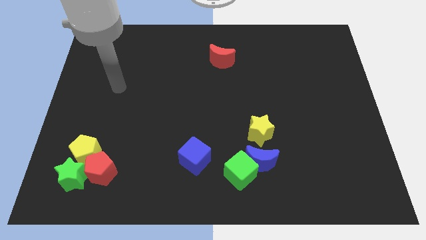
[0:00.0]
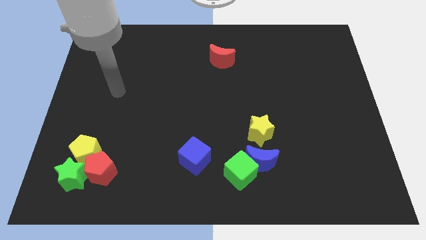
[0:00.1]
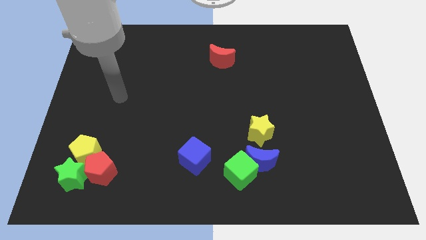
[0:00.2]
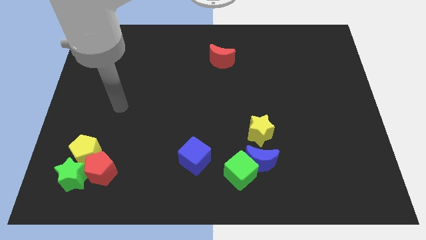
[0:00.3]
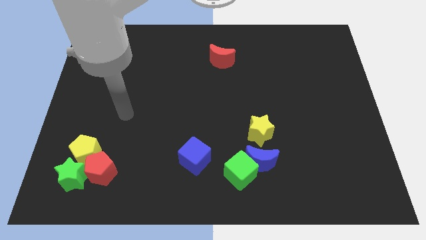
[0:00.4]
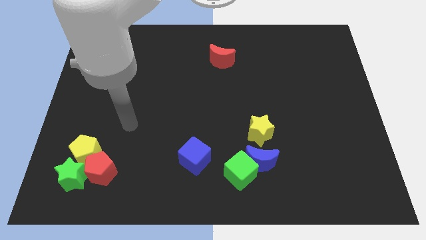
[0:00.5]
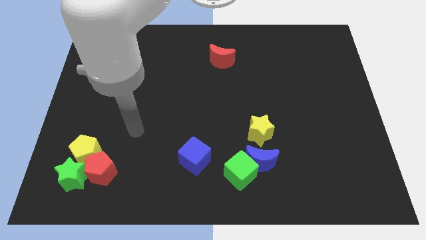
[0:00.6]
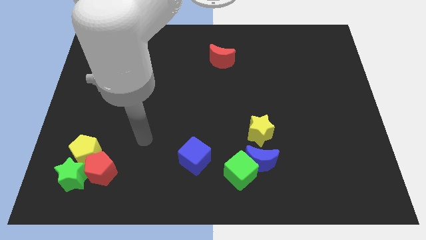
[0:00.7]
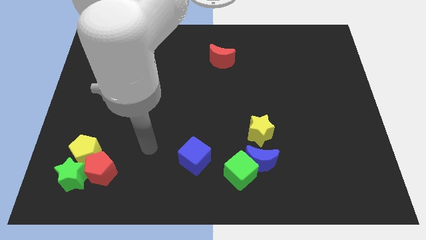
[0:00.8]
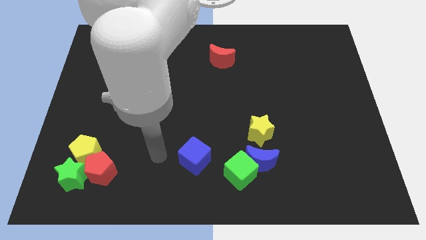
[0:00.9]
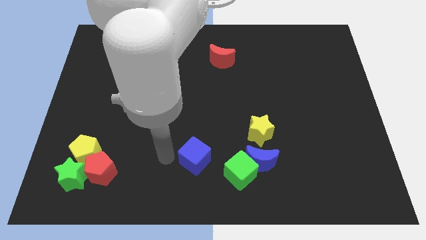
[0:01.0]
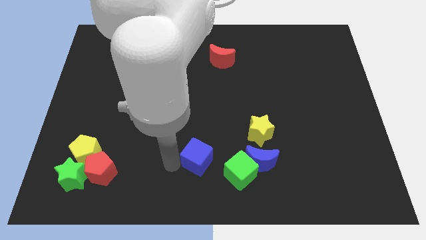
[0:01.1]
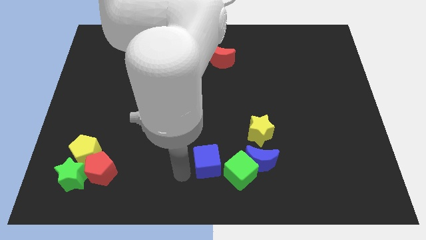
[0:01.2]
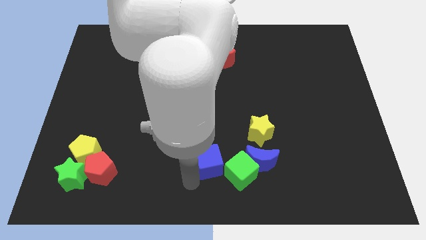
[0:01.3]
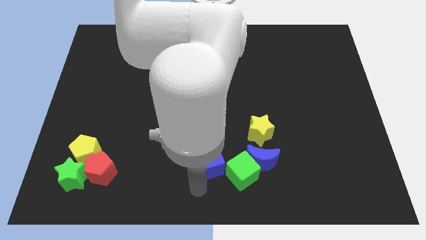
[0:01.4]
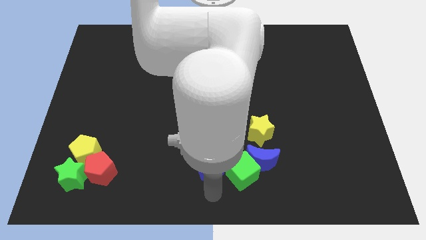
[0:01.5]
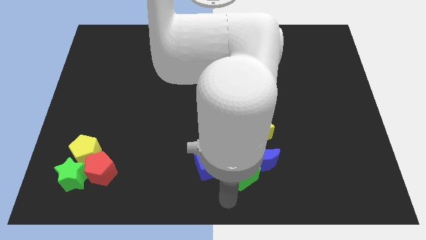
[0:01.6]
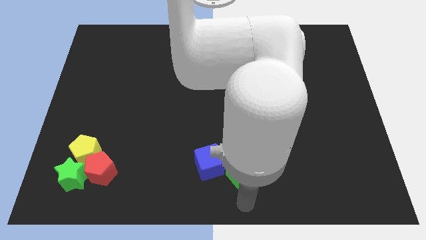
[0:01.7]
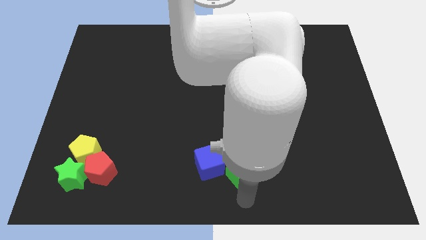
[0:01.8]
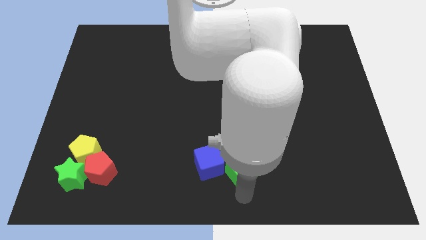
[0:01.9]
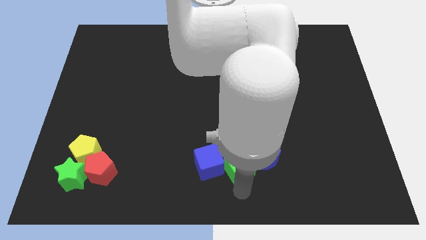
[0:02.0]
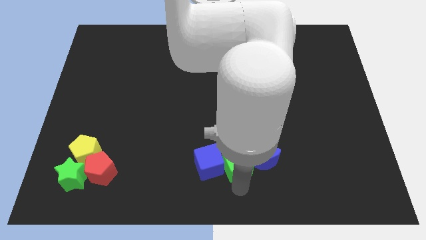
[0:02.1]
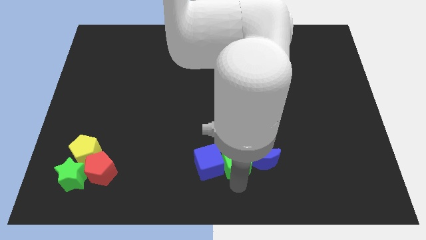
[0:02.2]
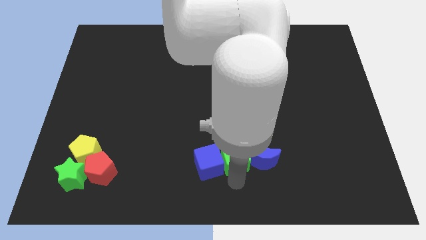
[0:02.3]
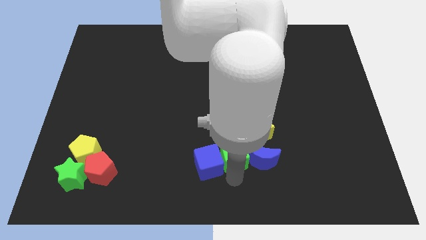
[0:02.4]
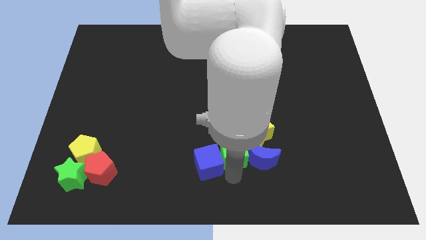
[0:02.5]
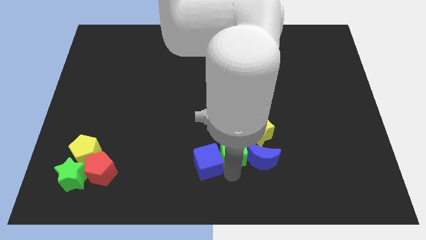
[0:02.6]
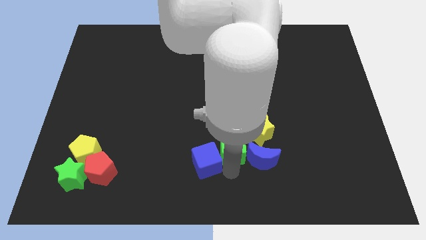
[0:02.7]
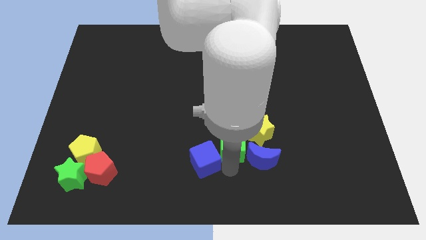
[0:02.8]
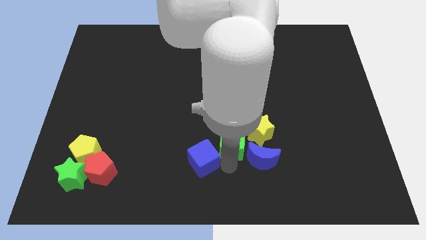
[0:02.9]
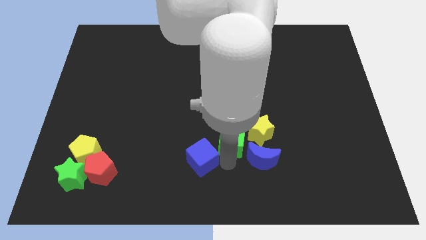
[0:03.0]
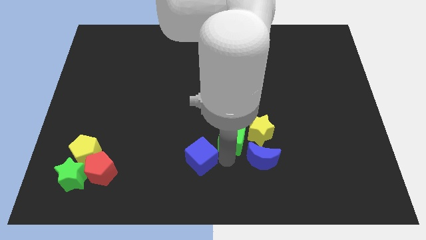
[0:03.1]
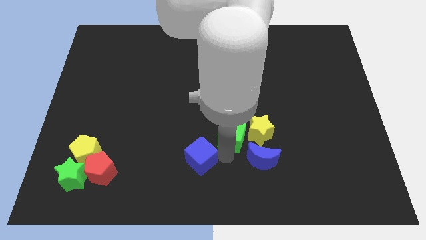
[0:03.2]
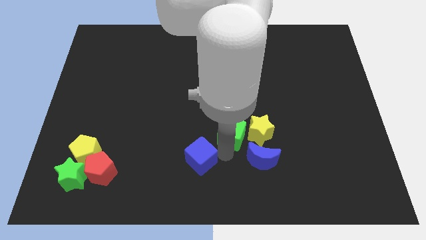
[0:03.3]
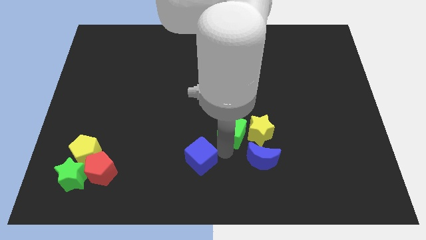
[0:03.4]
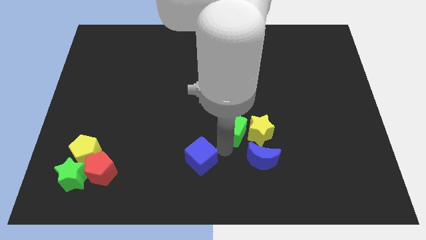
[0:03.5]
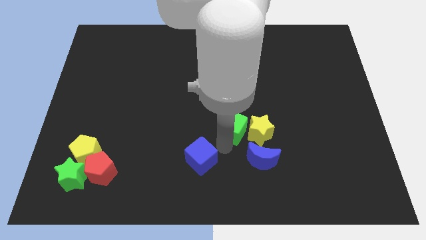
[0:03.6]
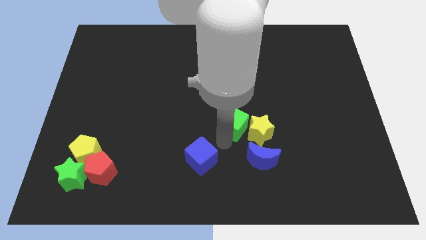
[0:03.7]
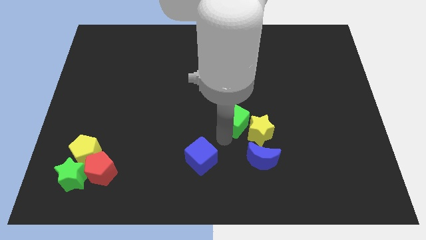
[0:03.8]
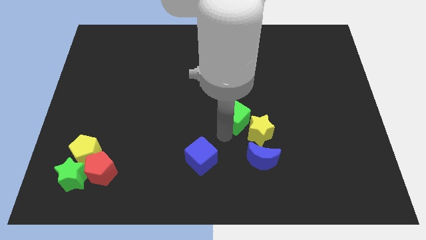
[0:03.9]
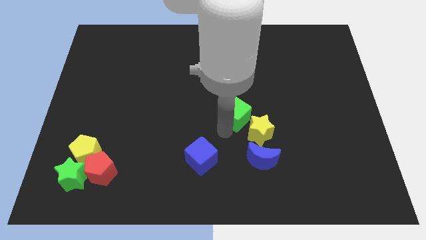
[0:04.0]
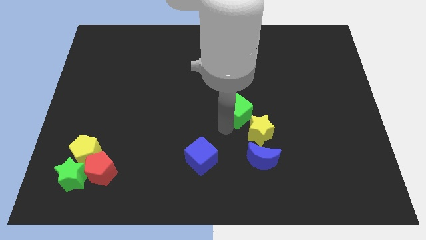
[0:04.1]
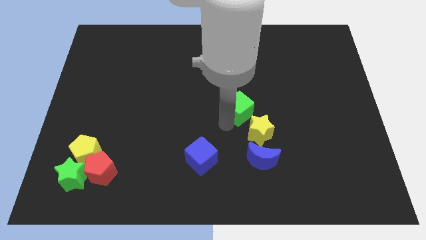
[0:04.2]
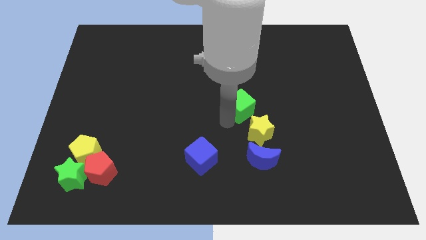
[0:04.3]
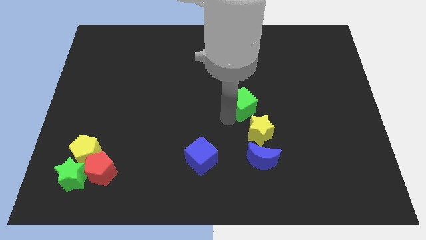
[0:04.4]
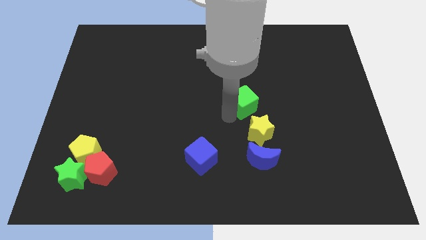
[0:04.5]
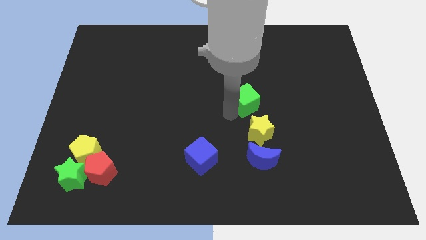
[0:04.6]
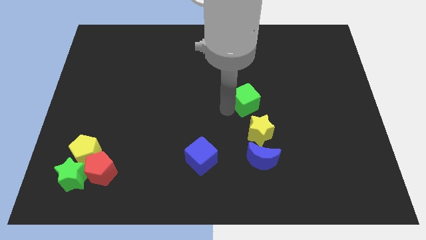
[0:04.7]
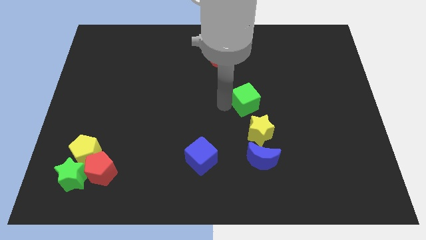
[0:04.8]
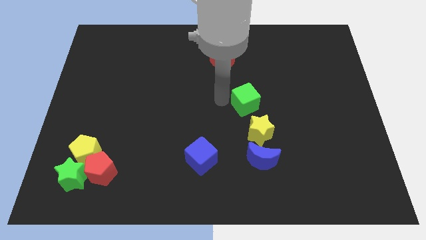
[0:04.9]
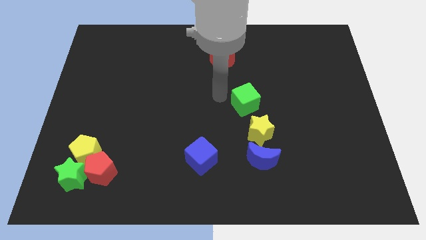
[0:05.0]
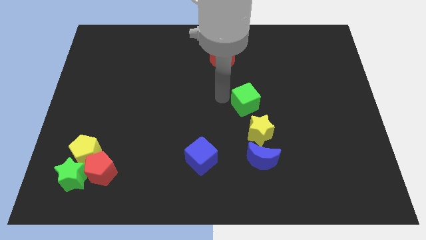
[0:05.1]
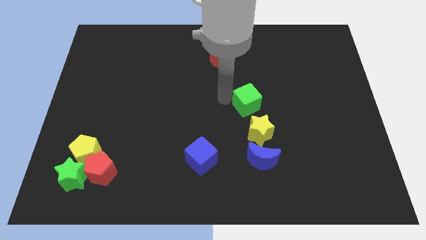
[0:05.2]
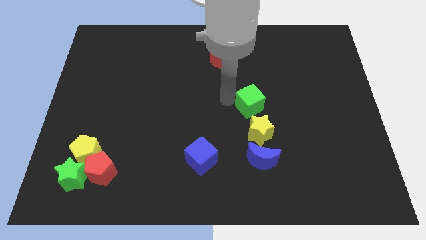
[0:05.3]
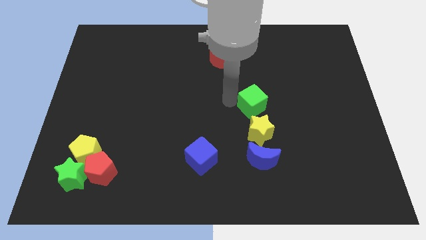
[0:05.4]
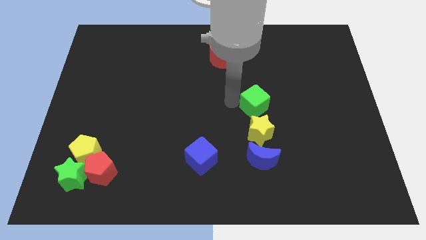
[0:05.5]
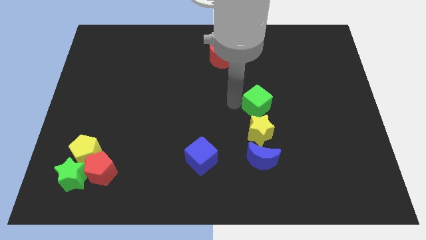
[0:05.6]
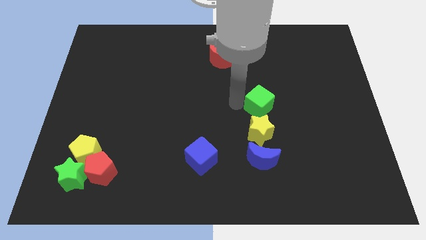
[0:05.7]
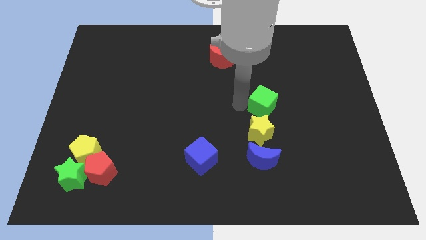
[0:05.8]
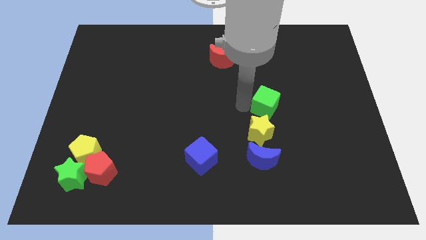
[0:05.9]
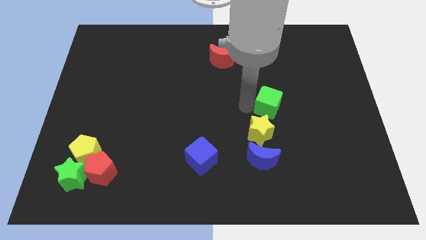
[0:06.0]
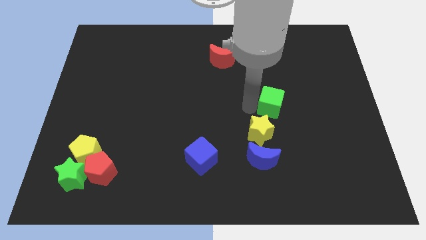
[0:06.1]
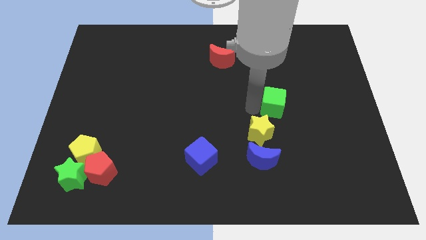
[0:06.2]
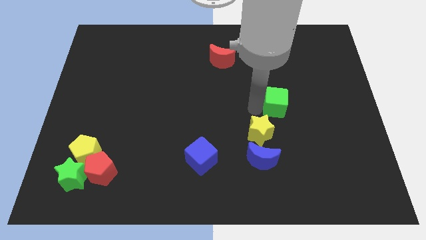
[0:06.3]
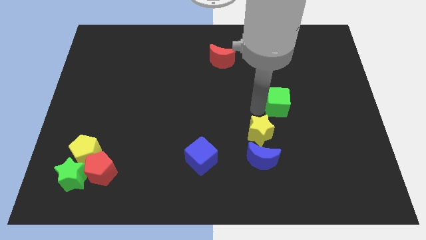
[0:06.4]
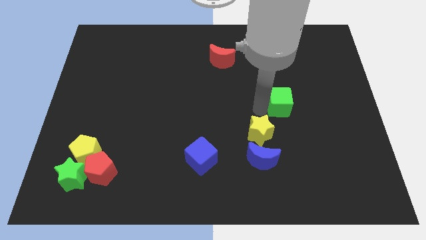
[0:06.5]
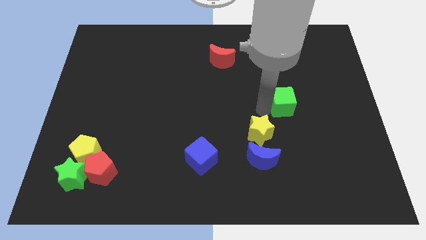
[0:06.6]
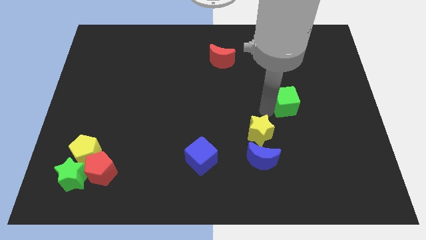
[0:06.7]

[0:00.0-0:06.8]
move the green cube upwards and then to the right

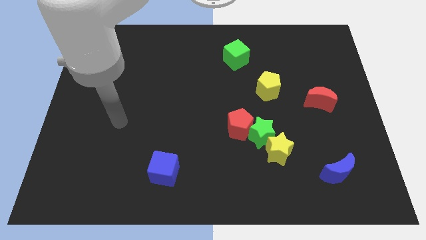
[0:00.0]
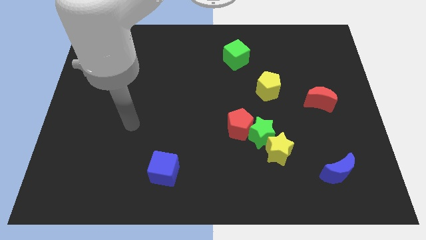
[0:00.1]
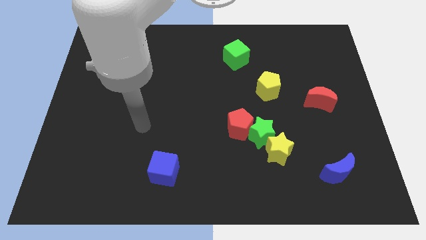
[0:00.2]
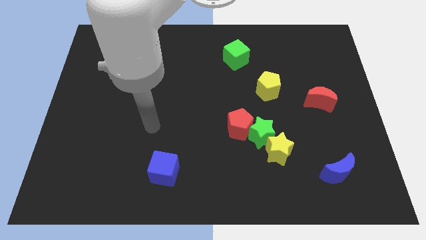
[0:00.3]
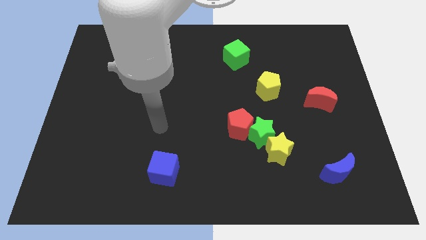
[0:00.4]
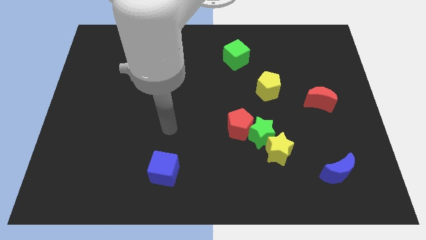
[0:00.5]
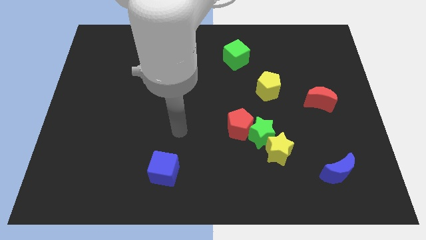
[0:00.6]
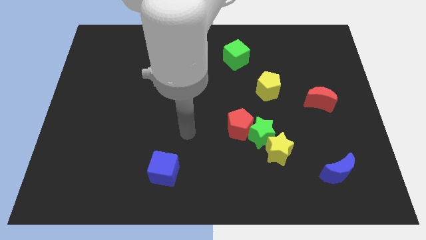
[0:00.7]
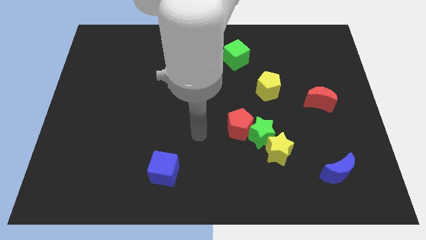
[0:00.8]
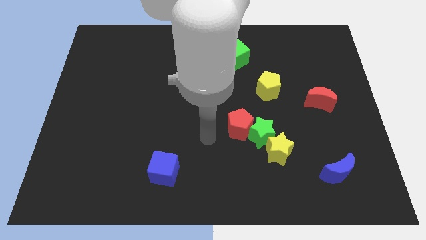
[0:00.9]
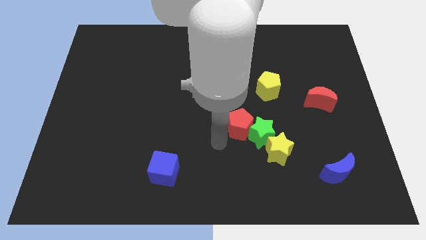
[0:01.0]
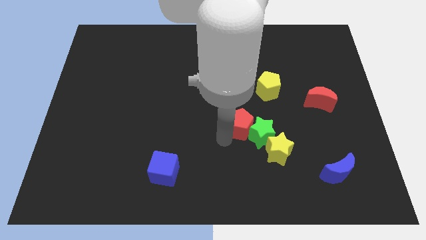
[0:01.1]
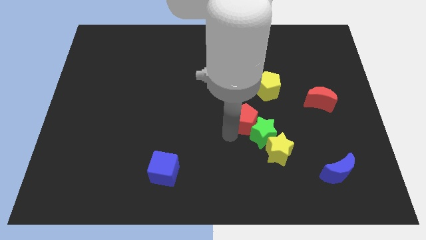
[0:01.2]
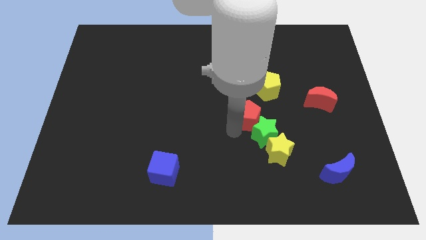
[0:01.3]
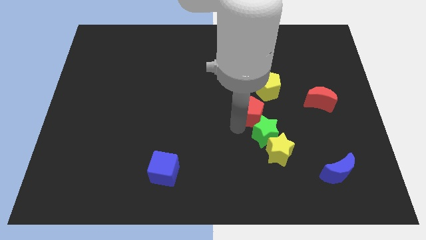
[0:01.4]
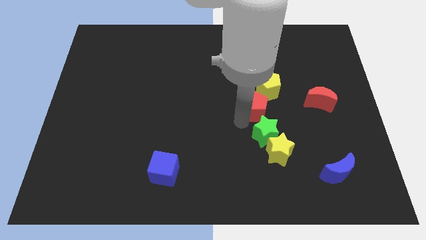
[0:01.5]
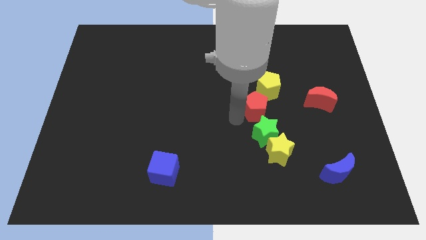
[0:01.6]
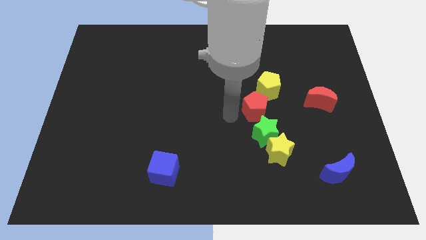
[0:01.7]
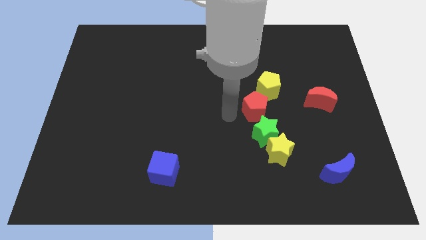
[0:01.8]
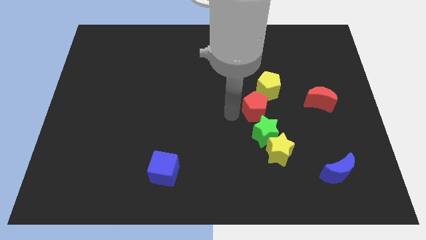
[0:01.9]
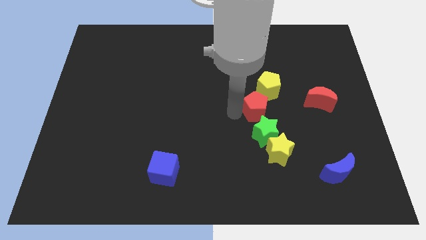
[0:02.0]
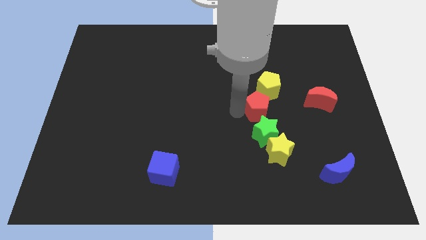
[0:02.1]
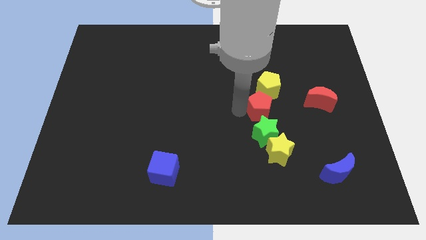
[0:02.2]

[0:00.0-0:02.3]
slightly move the red pentagon upwards and then to the right
